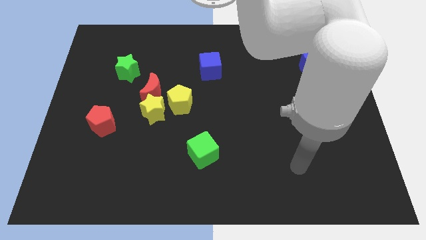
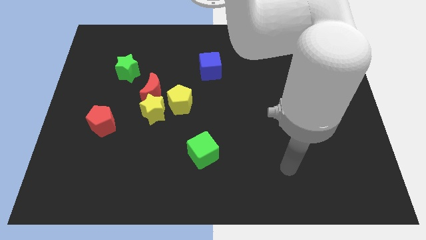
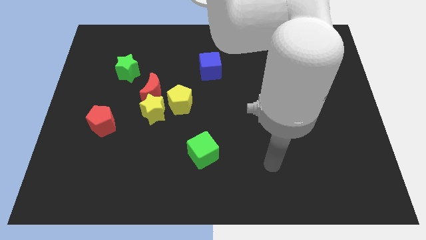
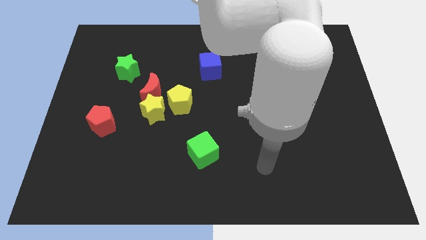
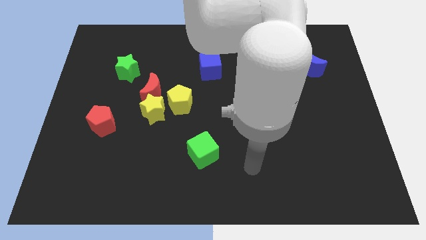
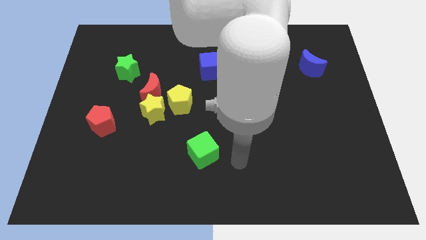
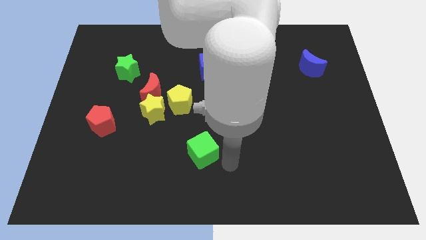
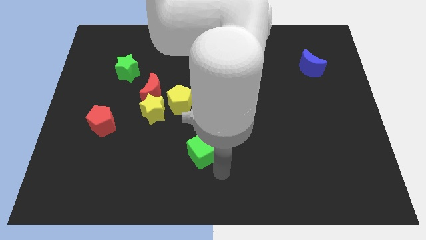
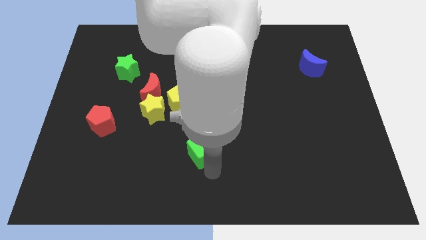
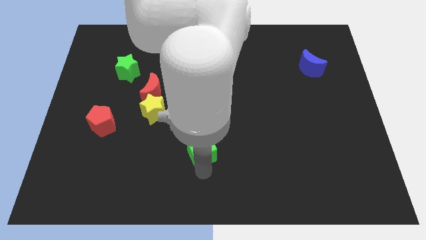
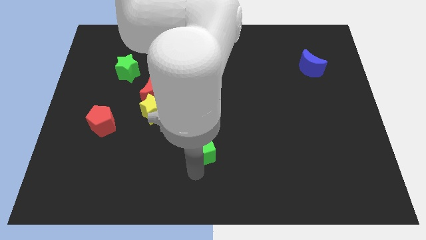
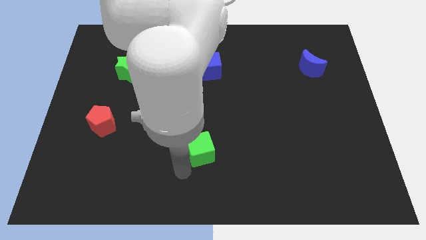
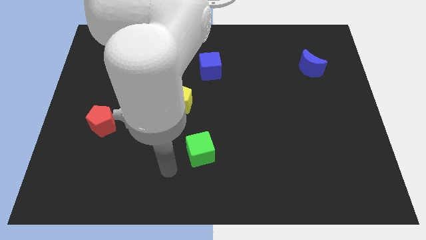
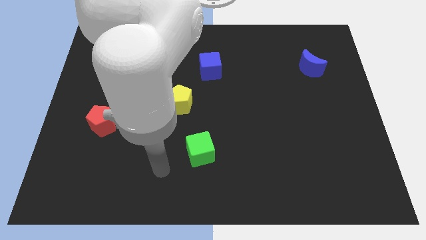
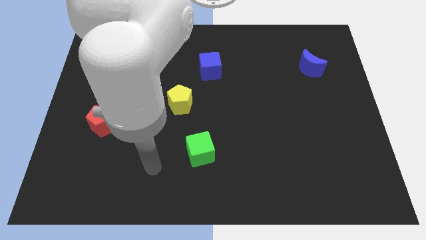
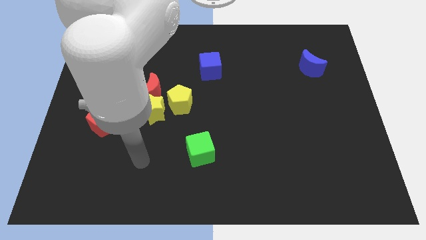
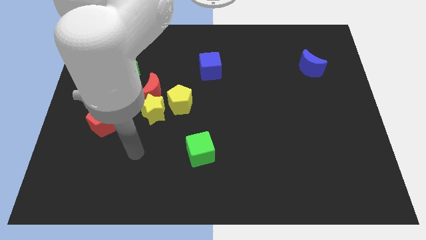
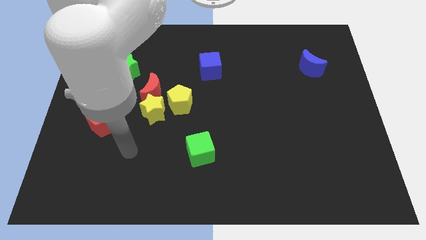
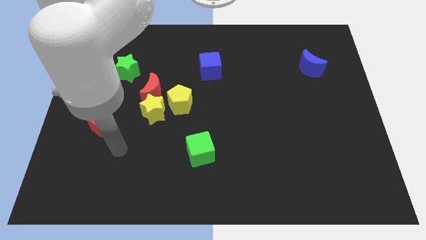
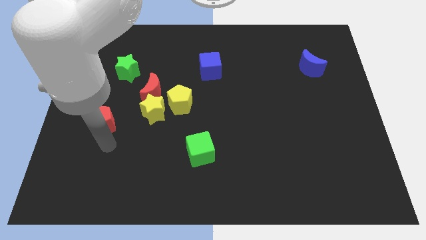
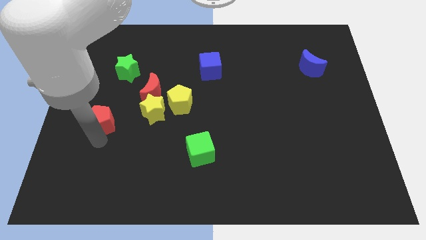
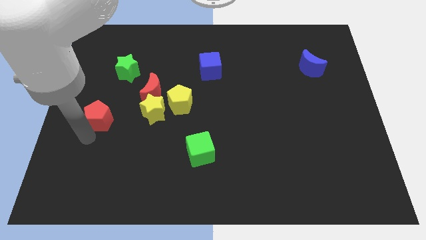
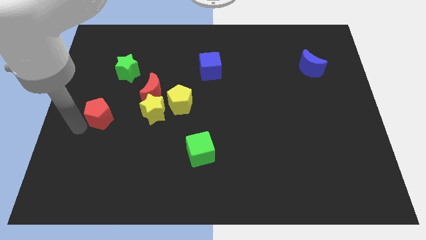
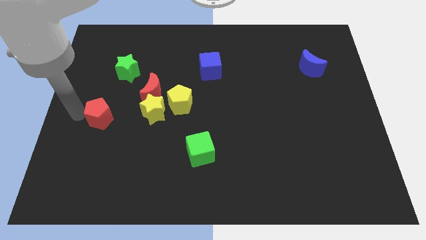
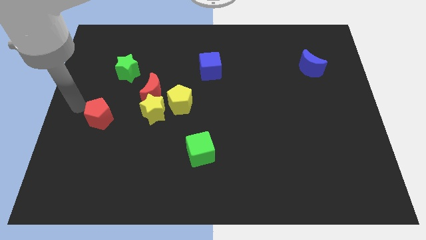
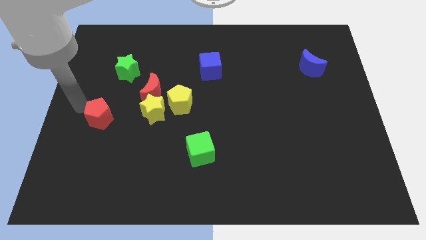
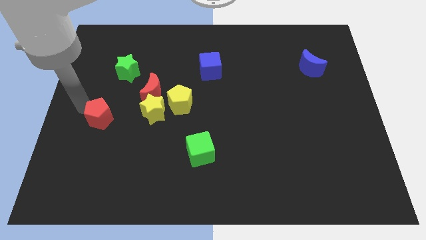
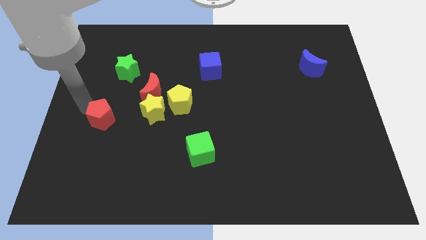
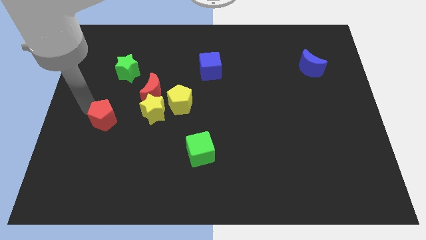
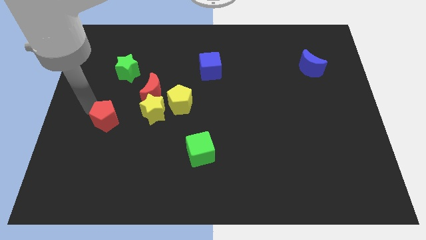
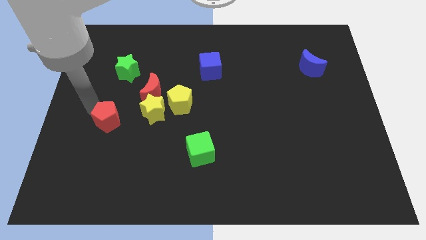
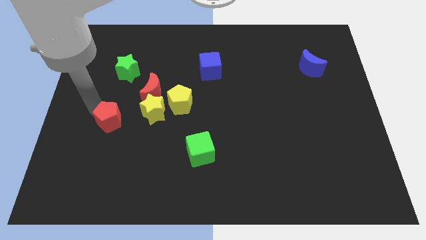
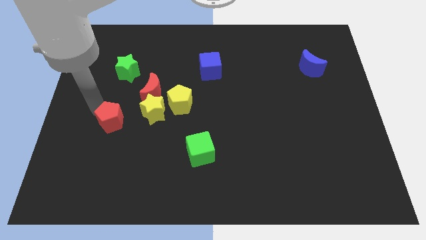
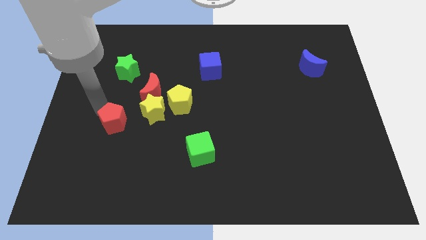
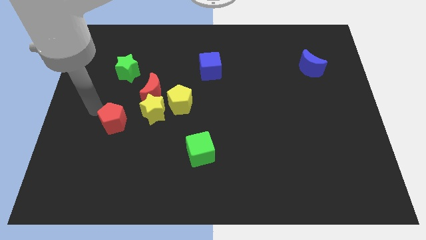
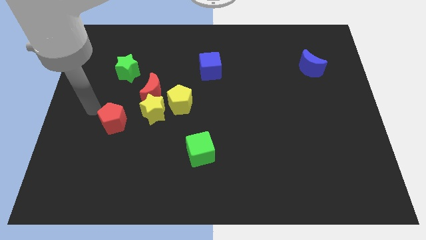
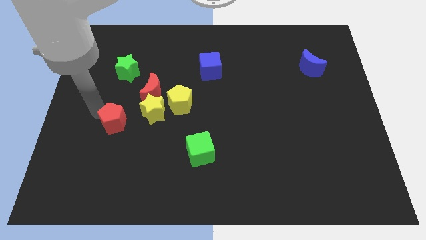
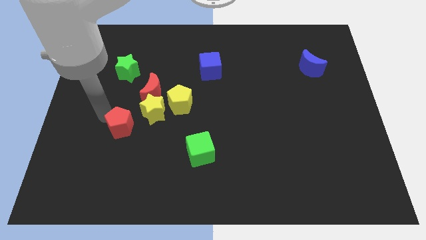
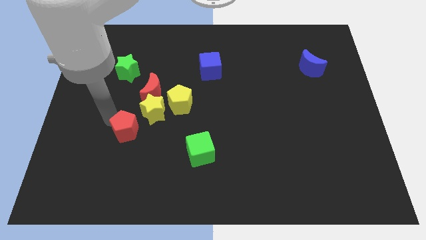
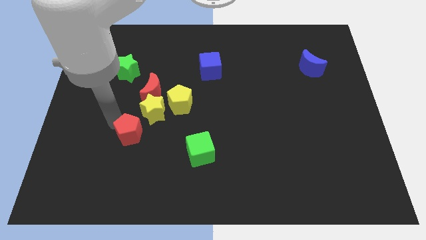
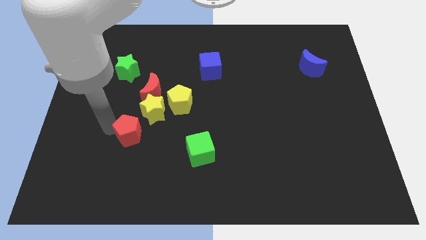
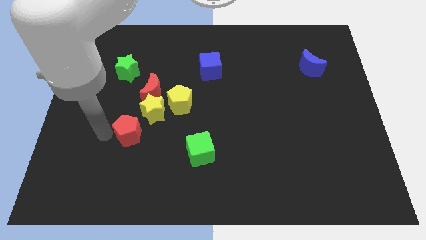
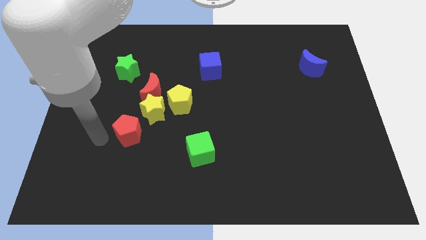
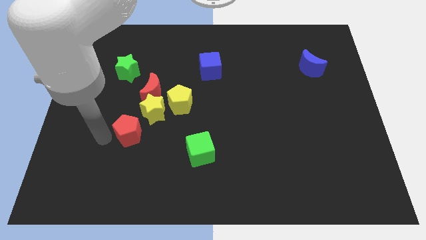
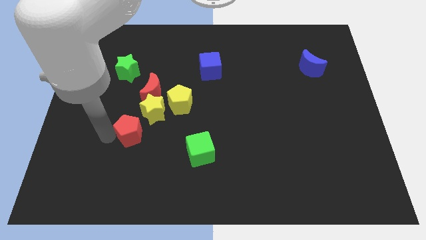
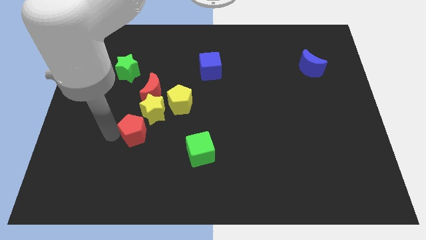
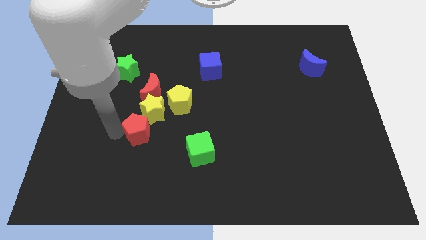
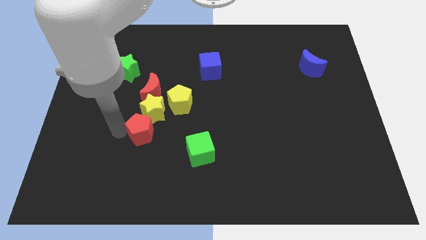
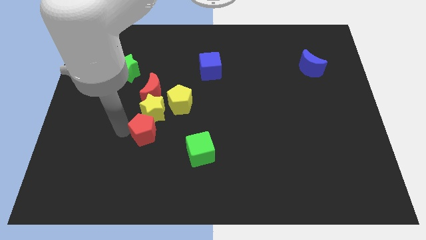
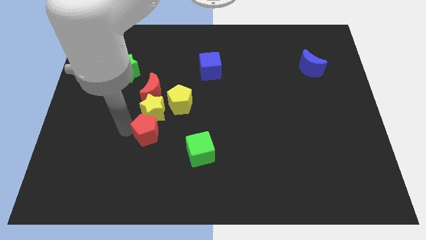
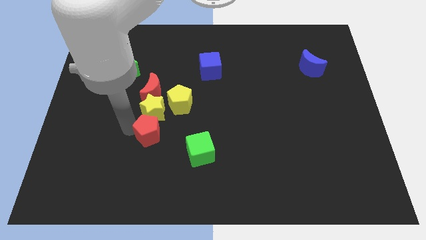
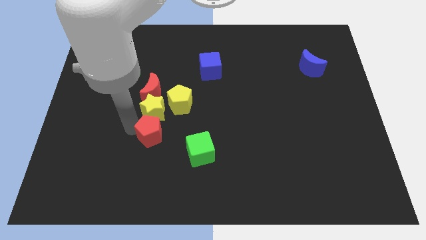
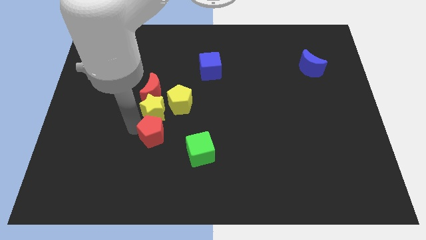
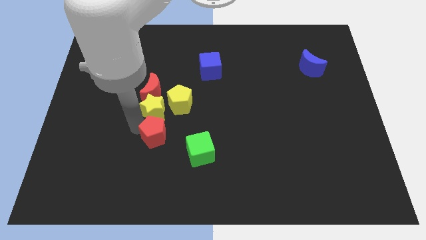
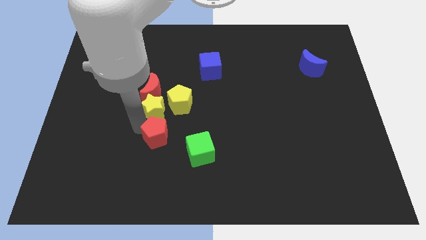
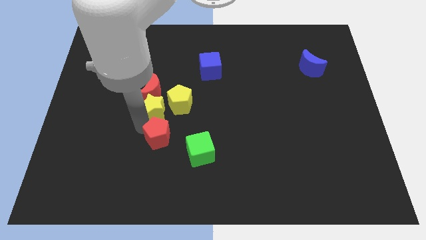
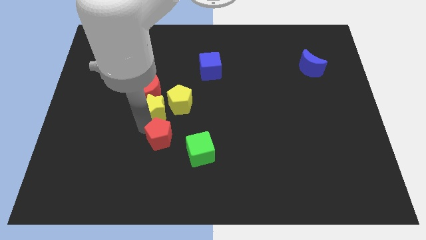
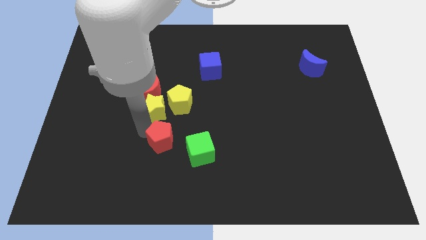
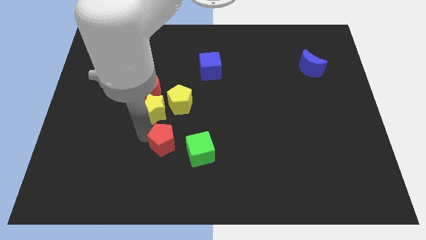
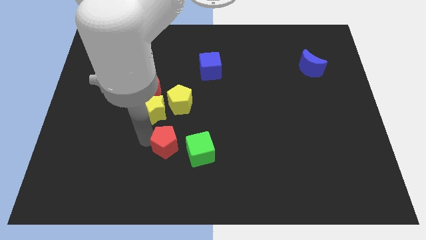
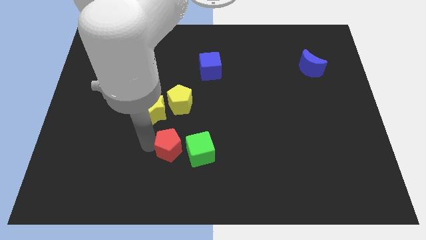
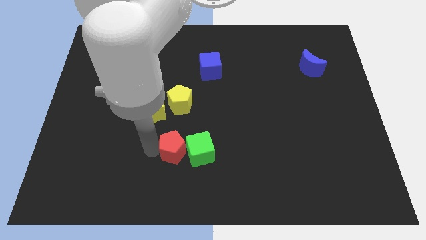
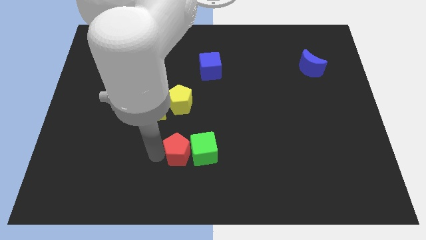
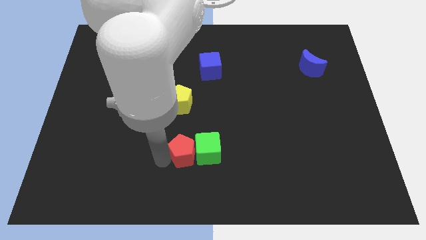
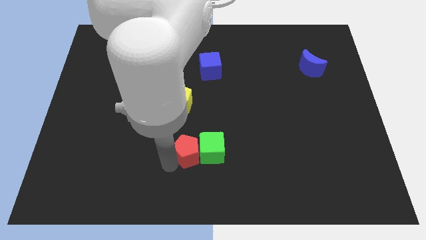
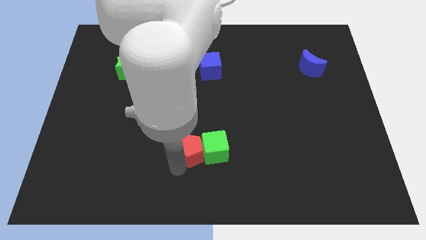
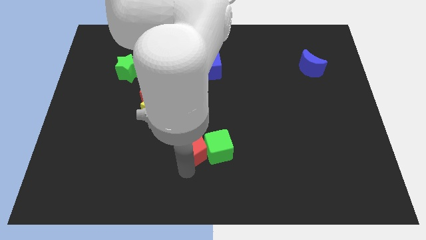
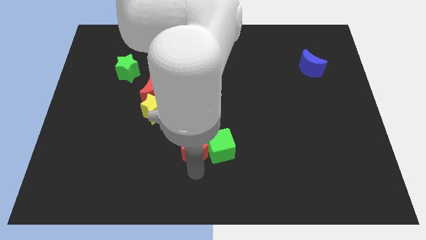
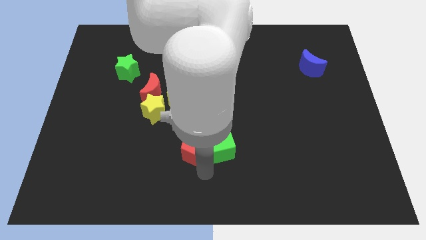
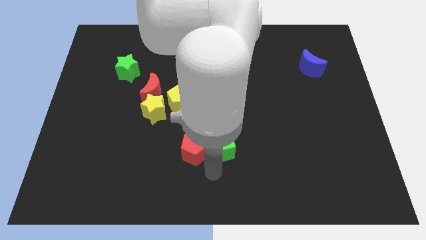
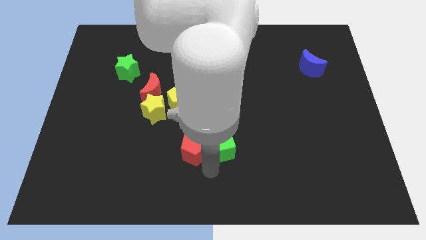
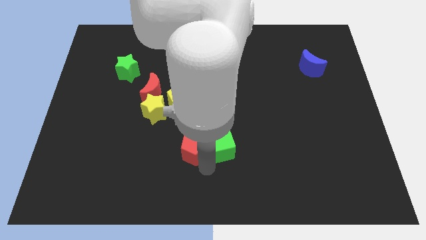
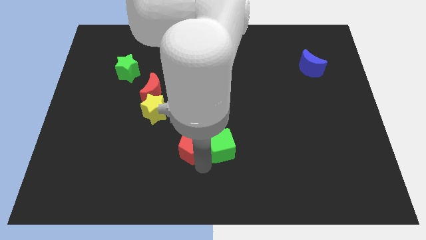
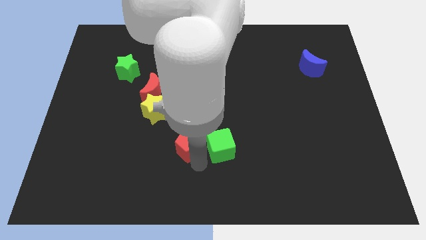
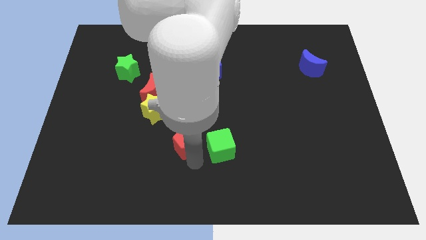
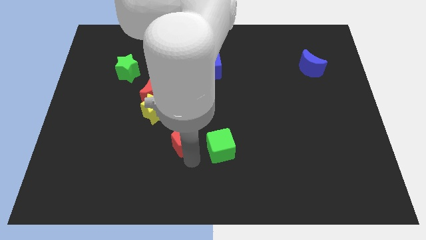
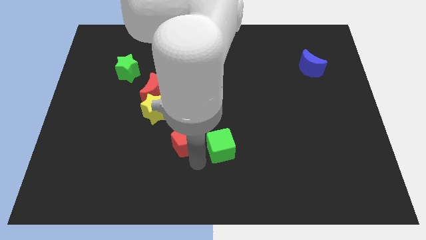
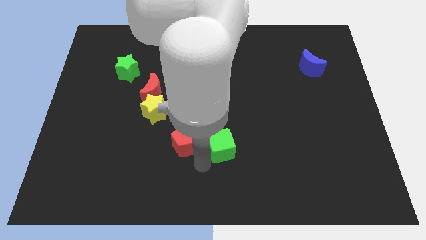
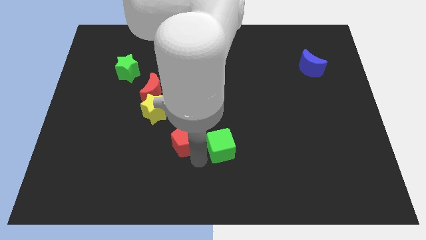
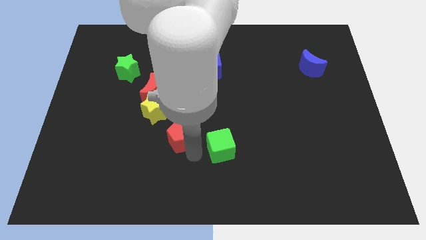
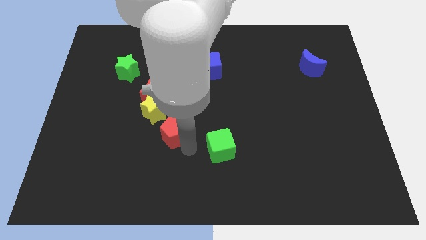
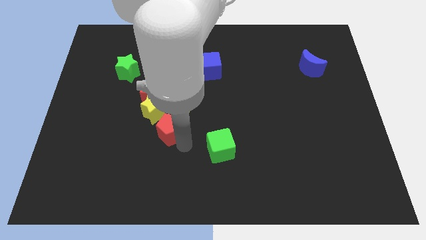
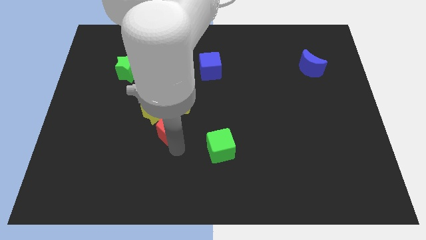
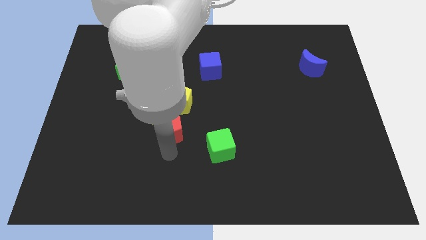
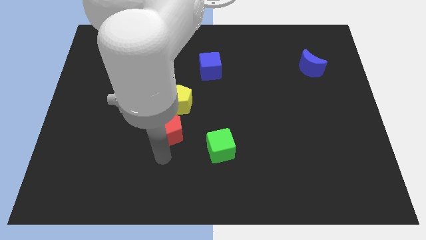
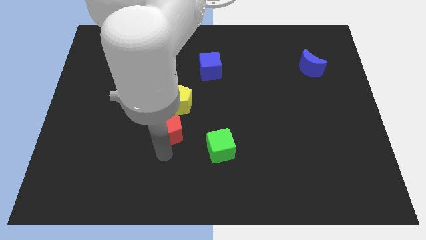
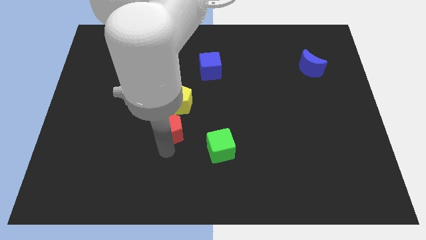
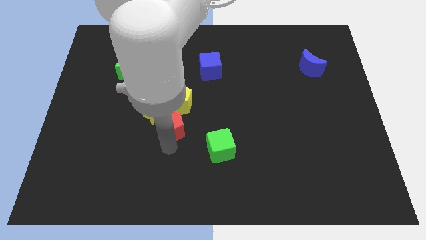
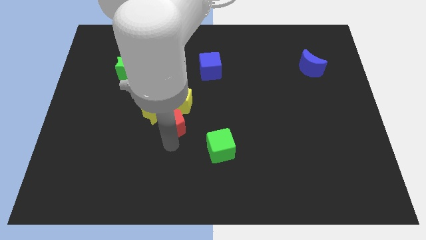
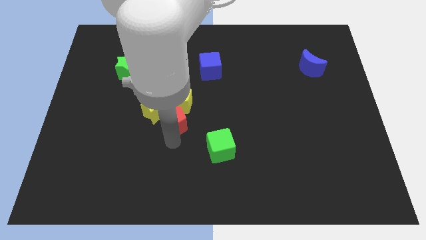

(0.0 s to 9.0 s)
move the red pentagon towards the yellow pentagon
